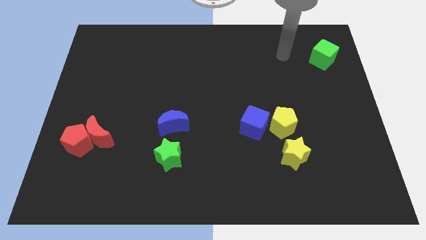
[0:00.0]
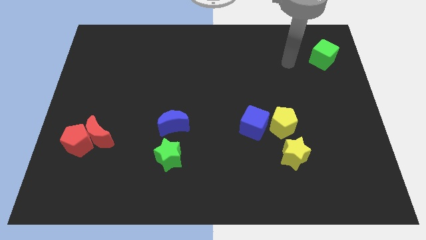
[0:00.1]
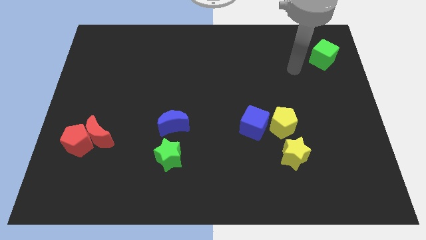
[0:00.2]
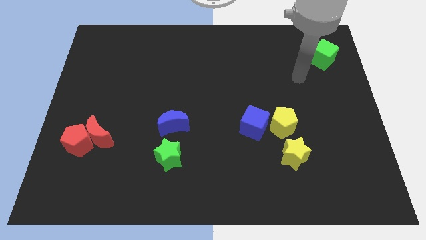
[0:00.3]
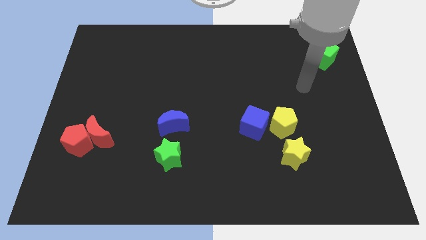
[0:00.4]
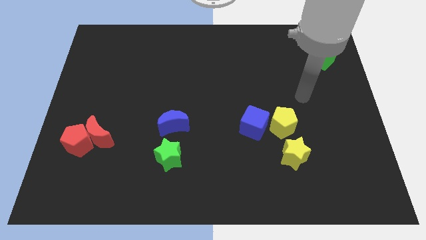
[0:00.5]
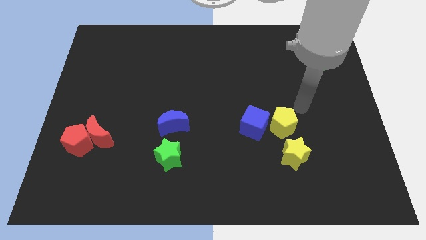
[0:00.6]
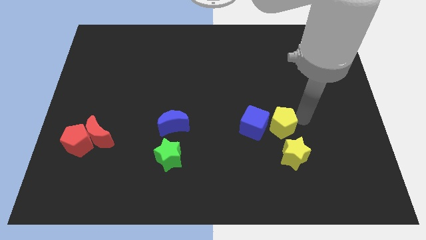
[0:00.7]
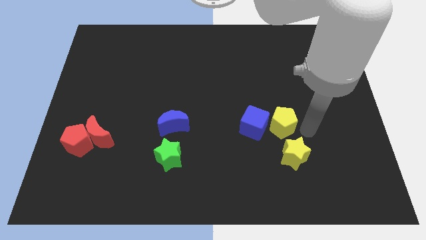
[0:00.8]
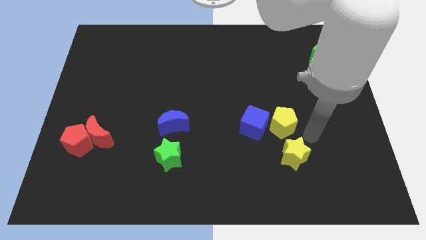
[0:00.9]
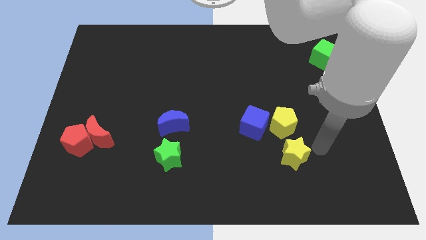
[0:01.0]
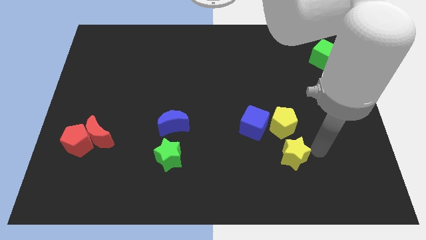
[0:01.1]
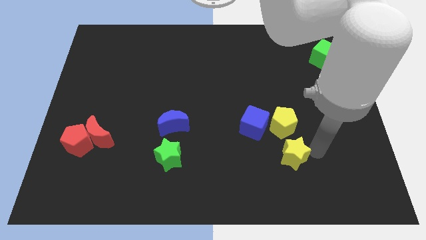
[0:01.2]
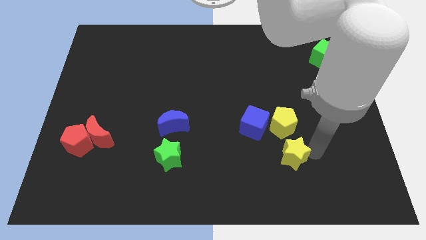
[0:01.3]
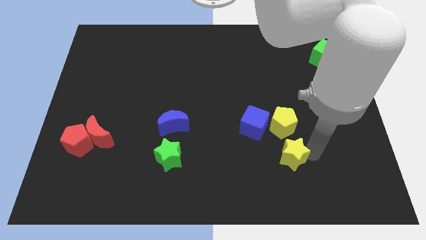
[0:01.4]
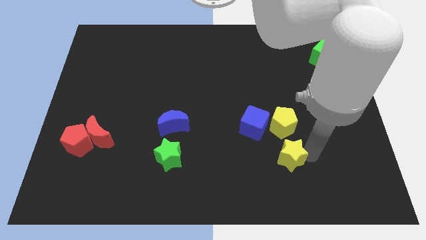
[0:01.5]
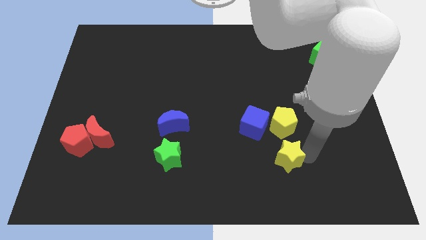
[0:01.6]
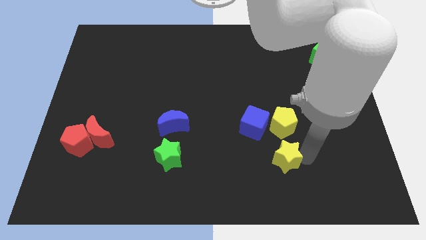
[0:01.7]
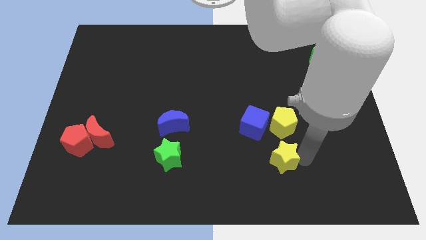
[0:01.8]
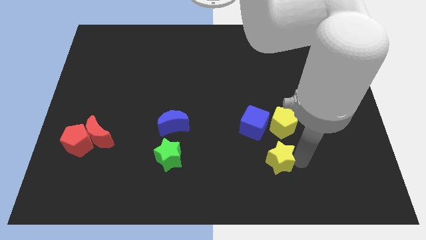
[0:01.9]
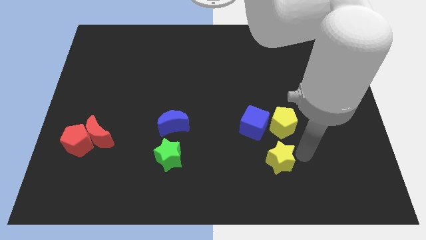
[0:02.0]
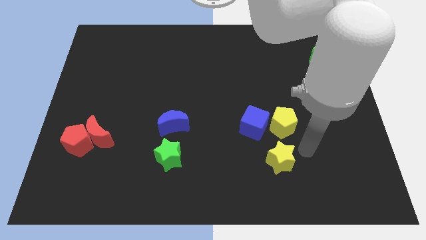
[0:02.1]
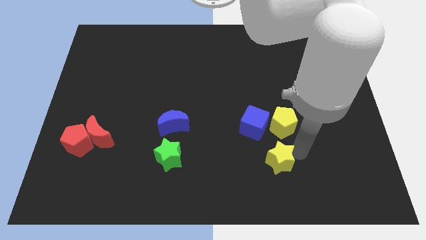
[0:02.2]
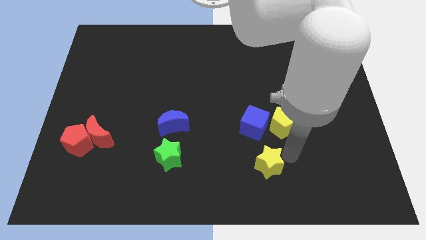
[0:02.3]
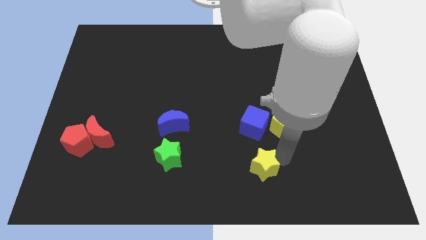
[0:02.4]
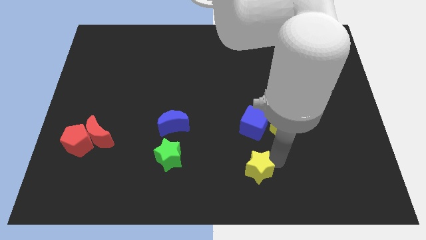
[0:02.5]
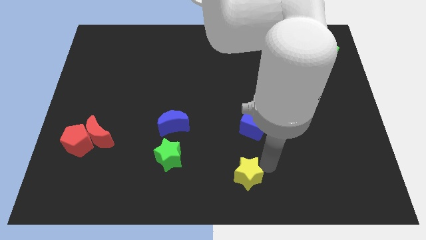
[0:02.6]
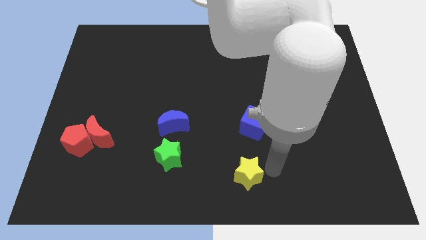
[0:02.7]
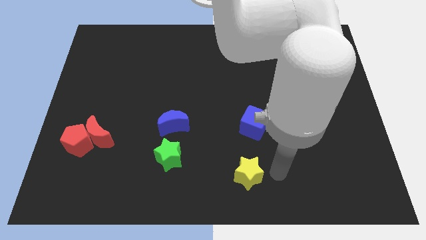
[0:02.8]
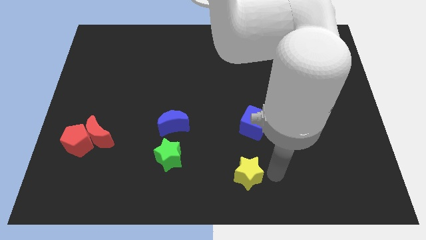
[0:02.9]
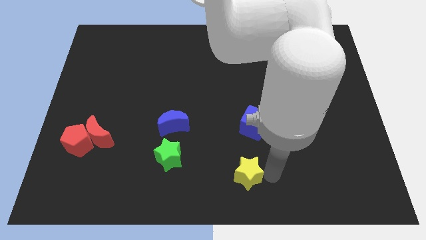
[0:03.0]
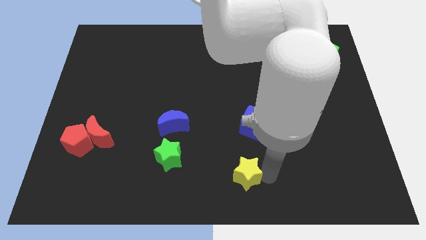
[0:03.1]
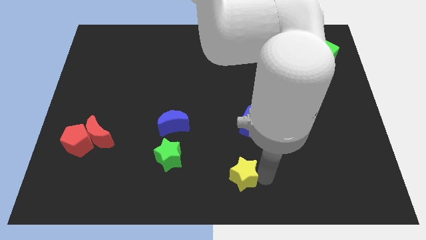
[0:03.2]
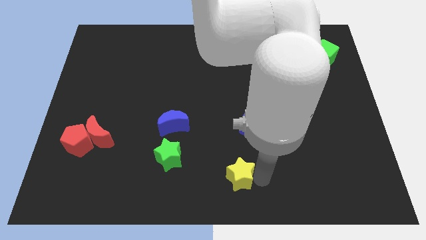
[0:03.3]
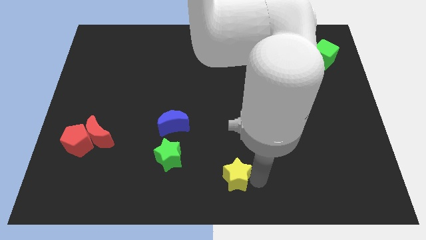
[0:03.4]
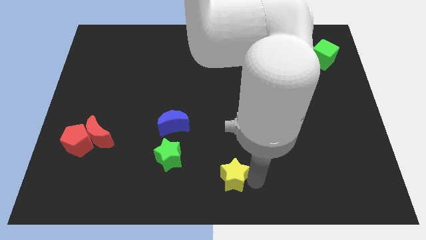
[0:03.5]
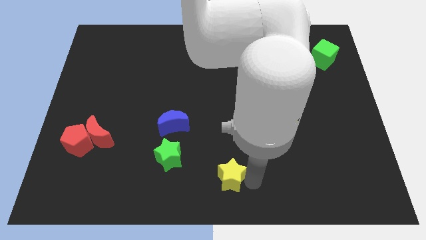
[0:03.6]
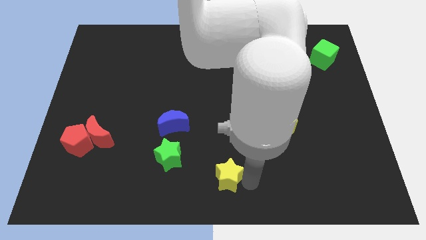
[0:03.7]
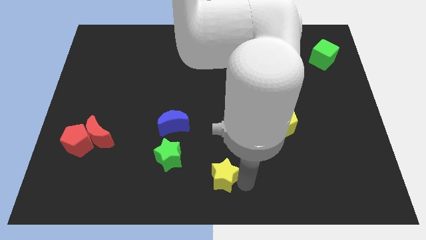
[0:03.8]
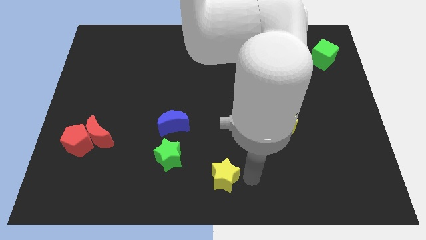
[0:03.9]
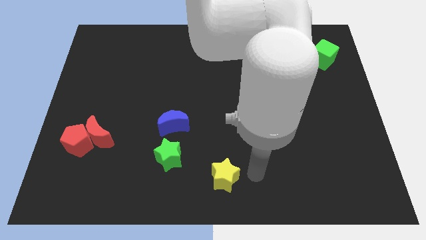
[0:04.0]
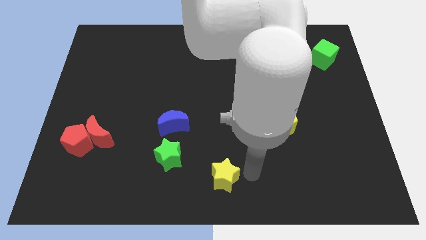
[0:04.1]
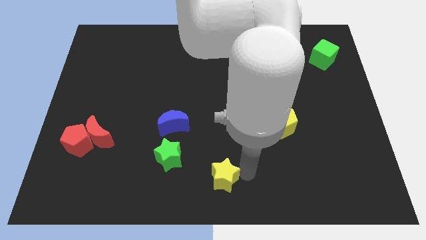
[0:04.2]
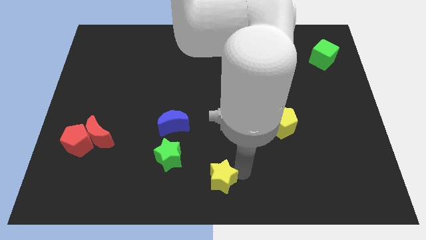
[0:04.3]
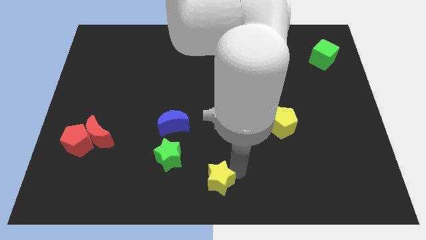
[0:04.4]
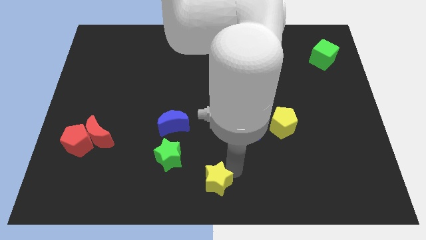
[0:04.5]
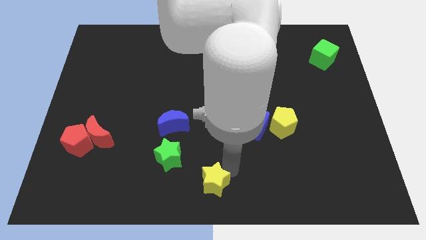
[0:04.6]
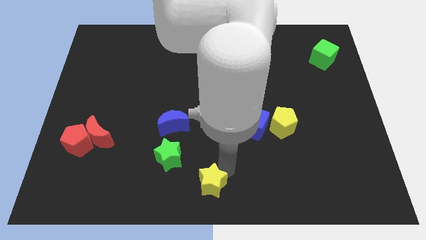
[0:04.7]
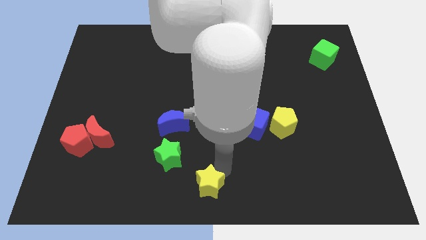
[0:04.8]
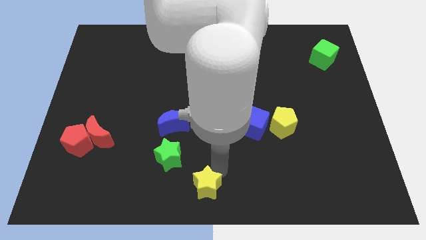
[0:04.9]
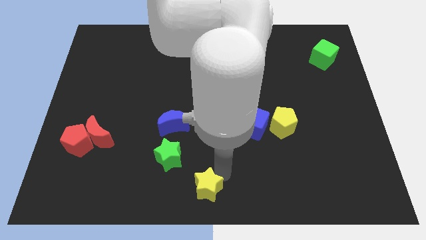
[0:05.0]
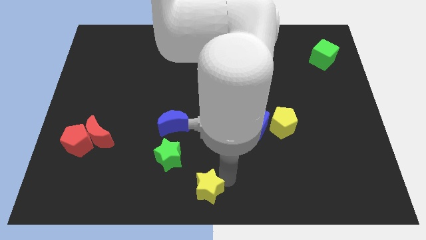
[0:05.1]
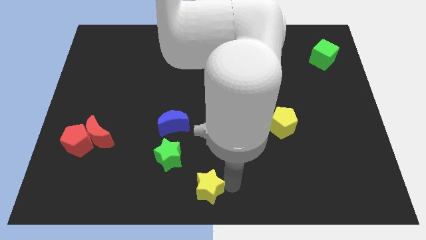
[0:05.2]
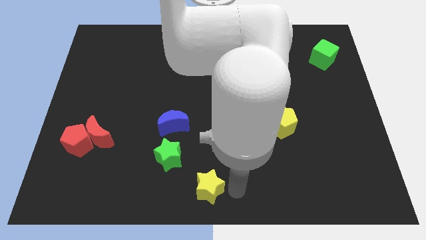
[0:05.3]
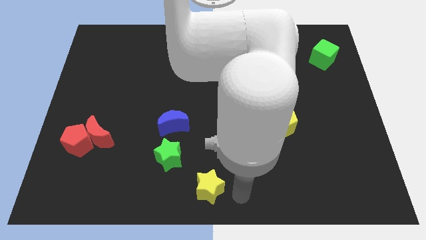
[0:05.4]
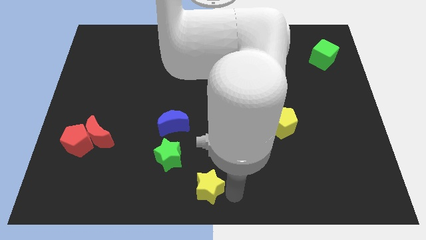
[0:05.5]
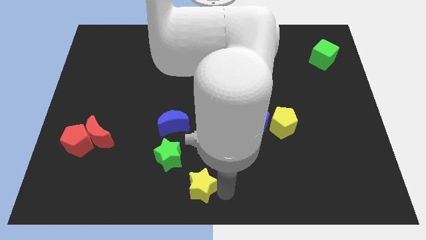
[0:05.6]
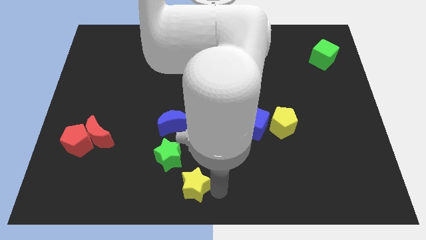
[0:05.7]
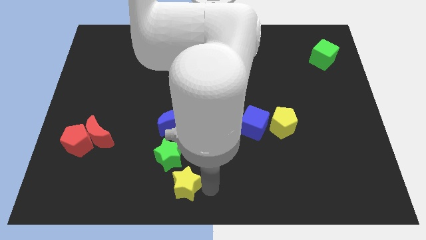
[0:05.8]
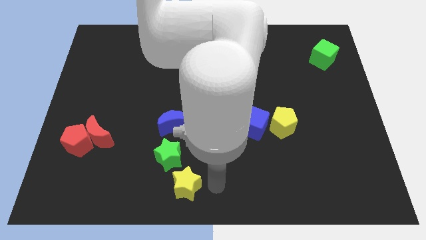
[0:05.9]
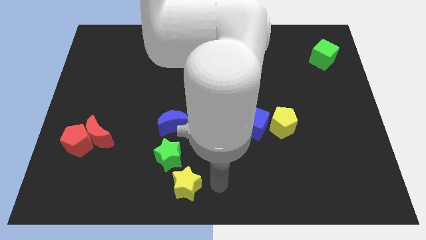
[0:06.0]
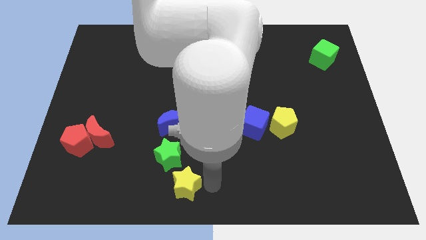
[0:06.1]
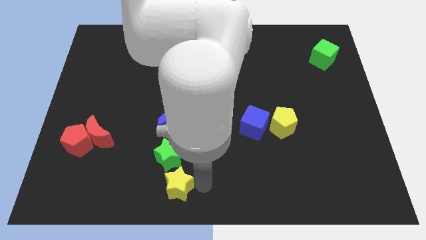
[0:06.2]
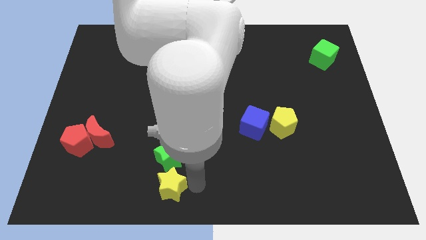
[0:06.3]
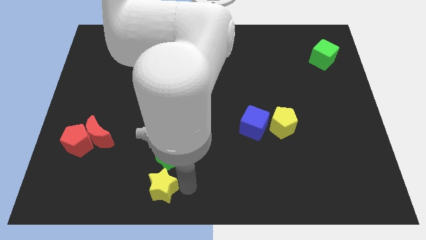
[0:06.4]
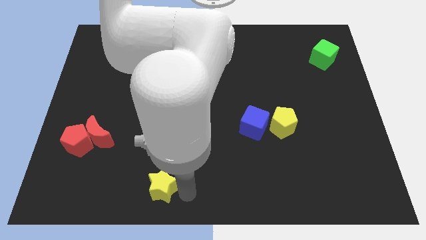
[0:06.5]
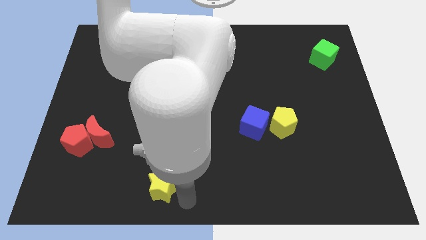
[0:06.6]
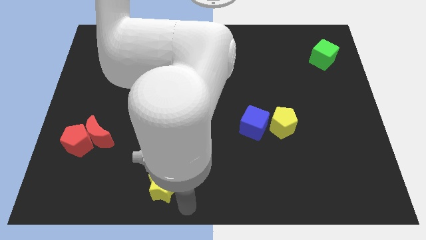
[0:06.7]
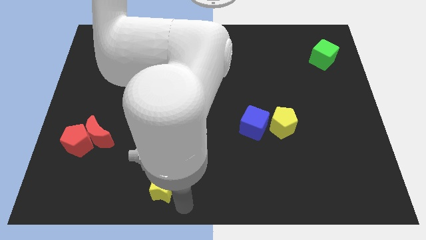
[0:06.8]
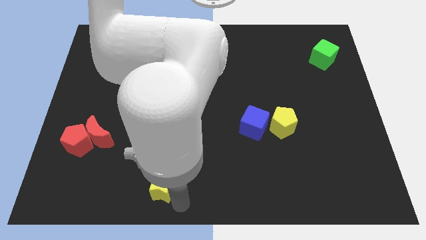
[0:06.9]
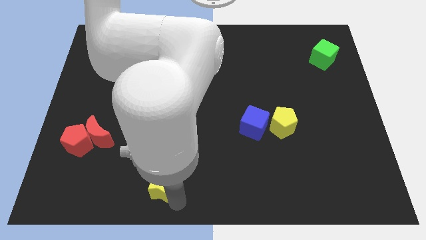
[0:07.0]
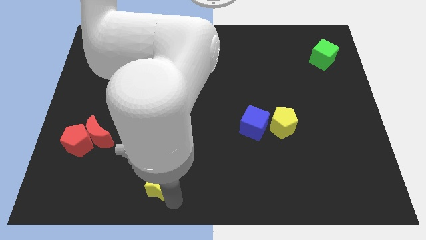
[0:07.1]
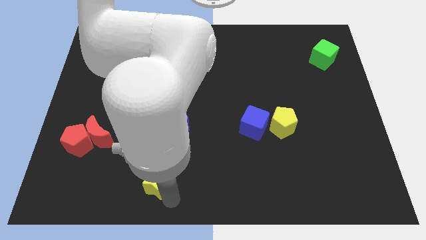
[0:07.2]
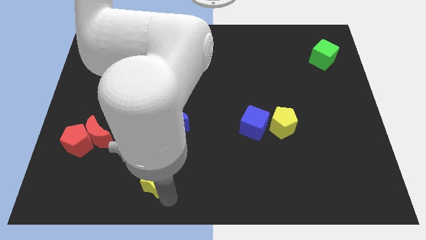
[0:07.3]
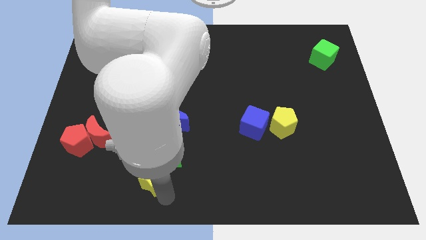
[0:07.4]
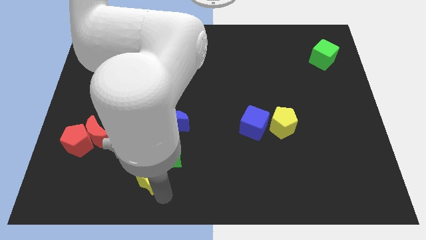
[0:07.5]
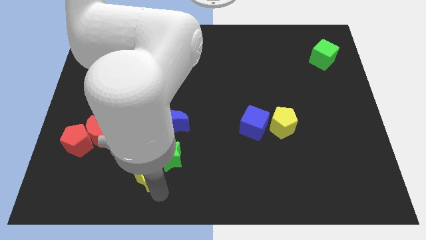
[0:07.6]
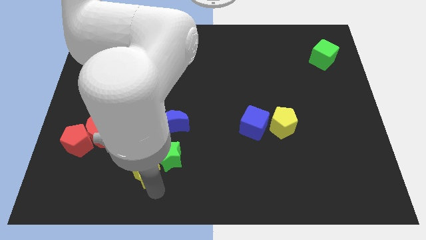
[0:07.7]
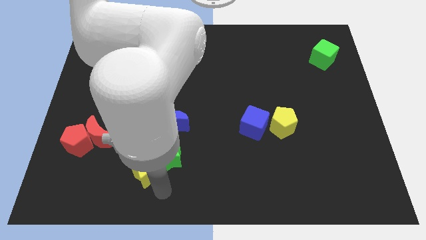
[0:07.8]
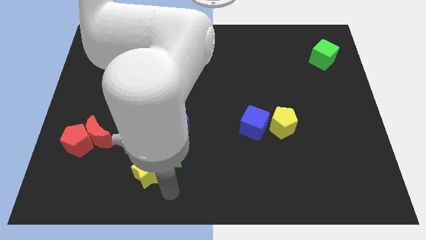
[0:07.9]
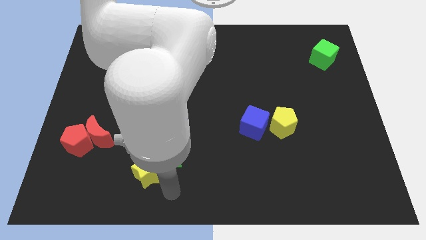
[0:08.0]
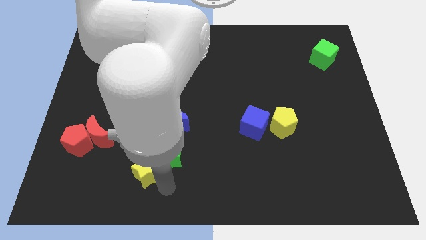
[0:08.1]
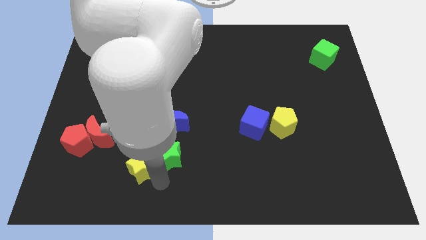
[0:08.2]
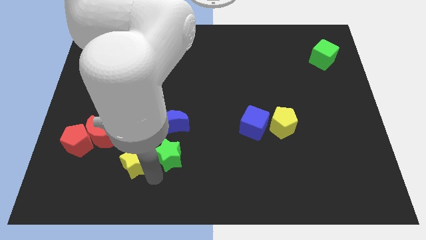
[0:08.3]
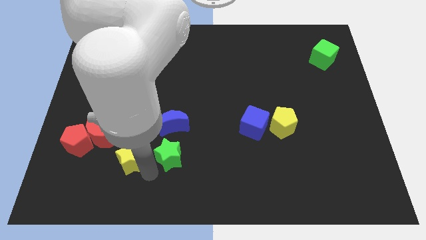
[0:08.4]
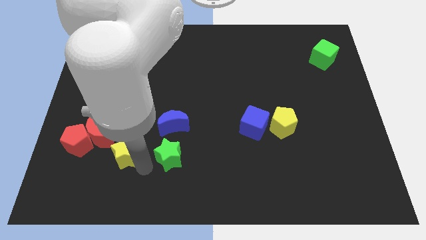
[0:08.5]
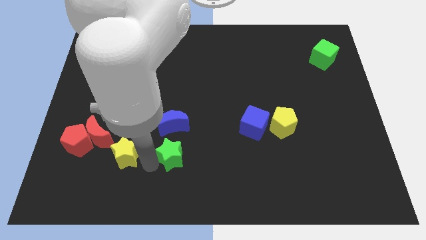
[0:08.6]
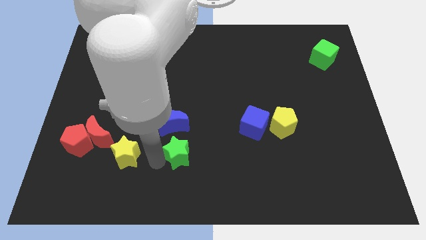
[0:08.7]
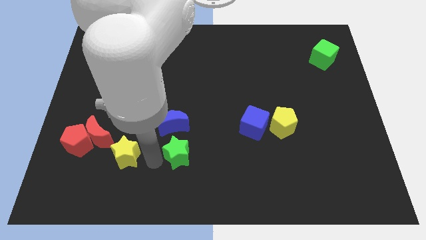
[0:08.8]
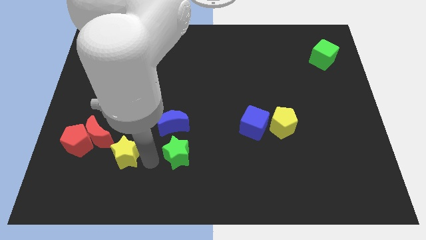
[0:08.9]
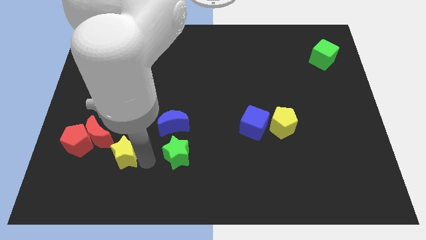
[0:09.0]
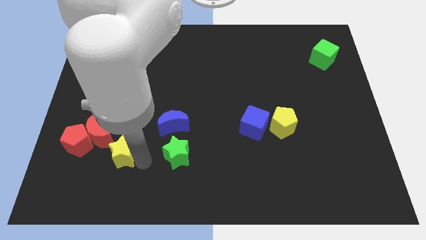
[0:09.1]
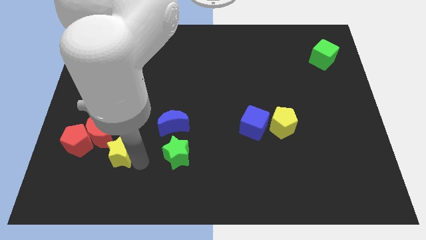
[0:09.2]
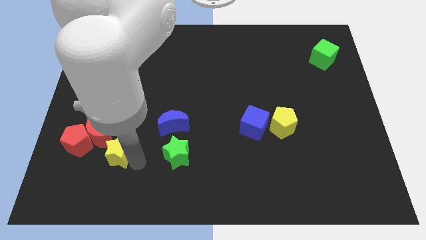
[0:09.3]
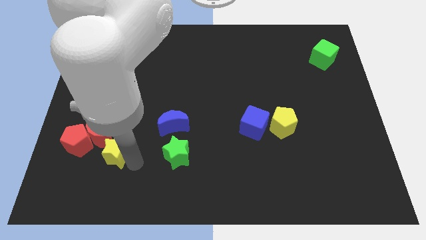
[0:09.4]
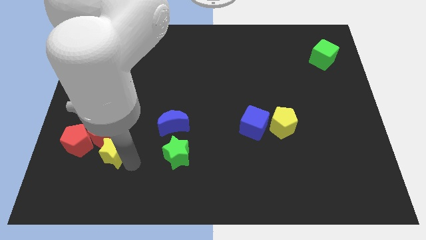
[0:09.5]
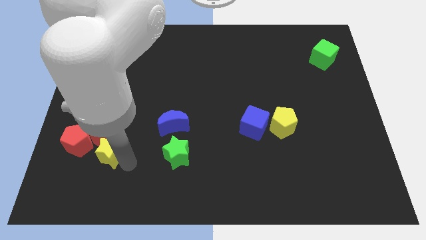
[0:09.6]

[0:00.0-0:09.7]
slide the yellow star to the red moon
